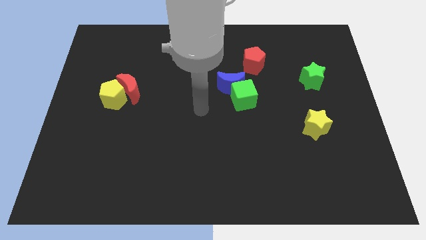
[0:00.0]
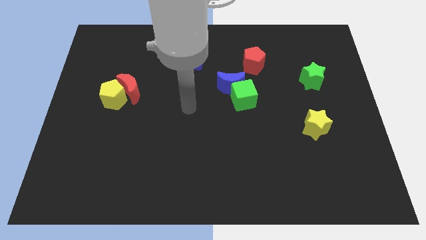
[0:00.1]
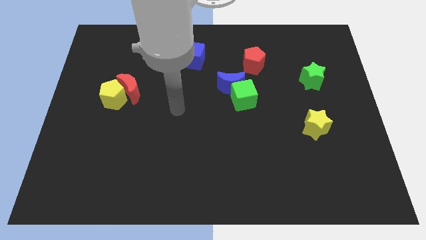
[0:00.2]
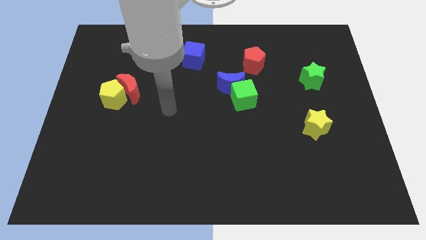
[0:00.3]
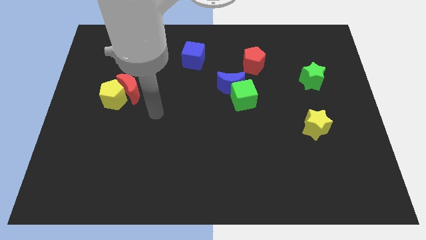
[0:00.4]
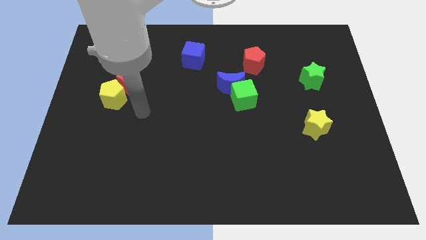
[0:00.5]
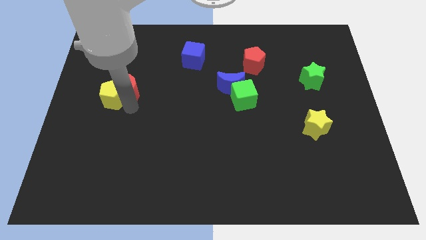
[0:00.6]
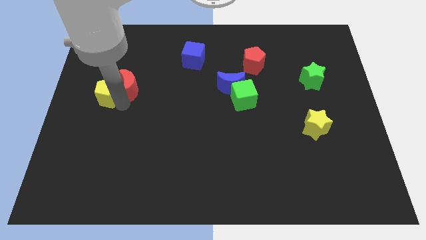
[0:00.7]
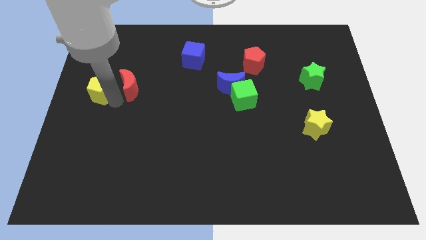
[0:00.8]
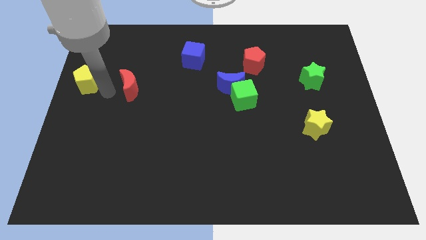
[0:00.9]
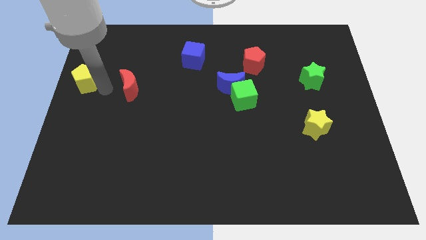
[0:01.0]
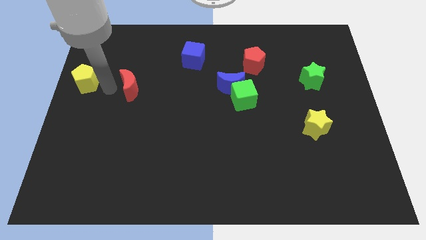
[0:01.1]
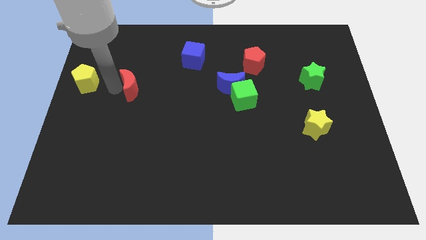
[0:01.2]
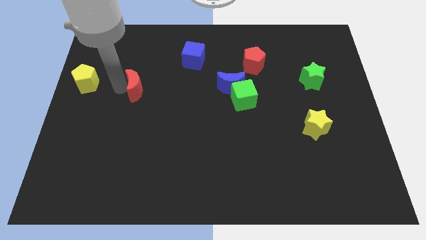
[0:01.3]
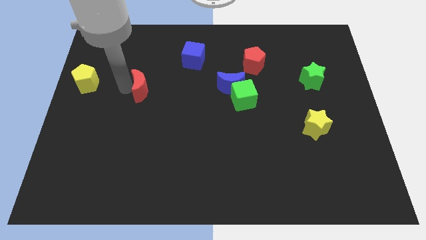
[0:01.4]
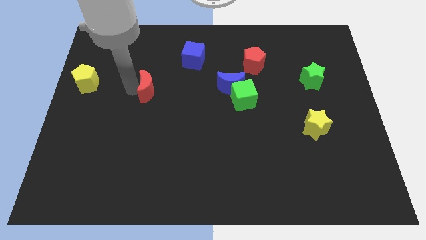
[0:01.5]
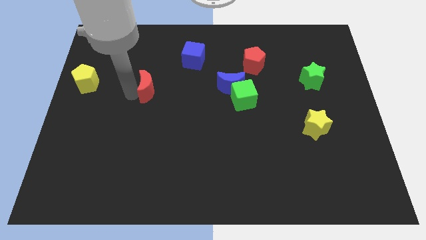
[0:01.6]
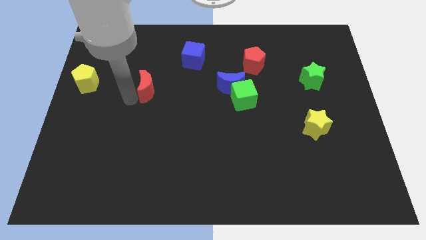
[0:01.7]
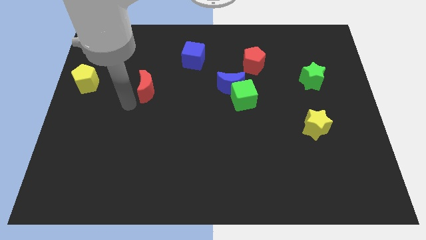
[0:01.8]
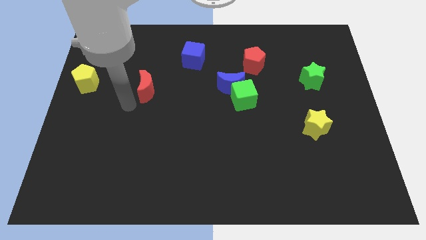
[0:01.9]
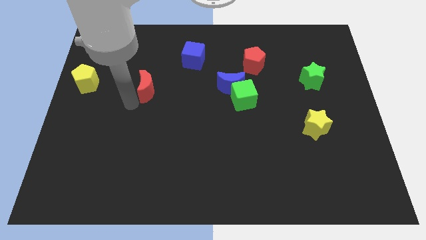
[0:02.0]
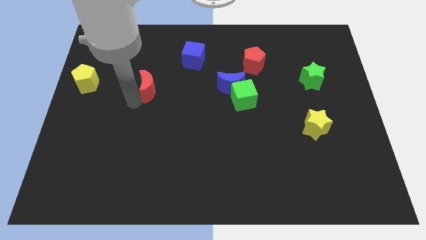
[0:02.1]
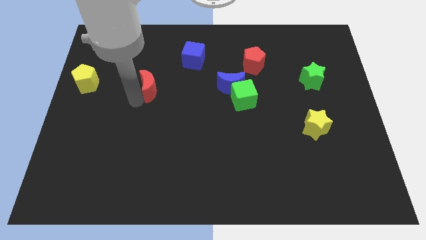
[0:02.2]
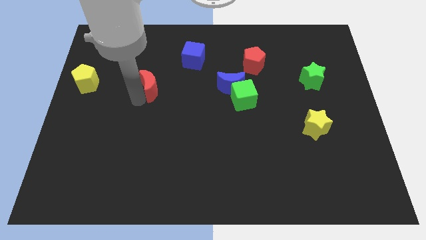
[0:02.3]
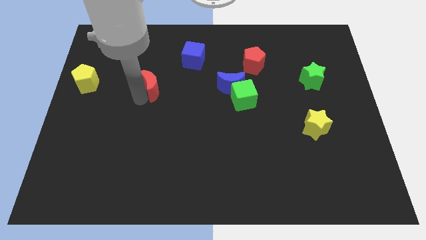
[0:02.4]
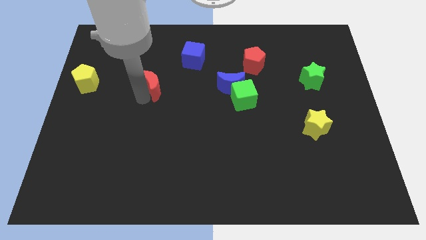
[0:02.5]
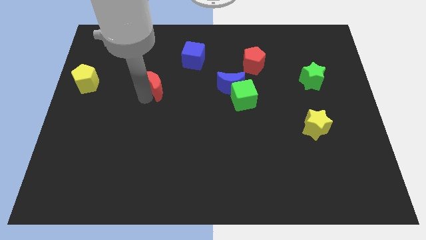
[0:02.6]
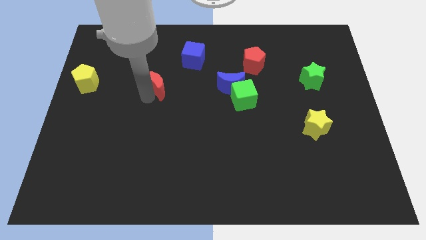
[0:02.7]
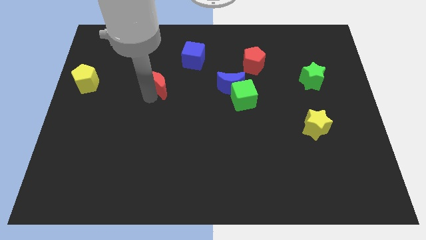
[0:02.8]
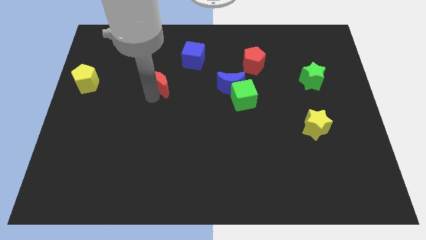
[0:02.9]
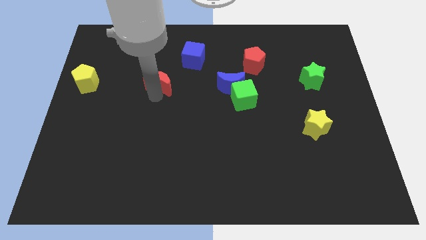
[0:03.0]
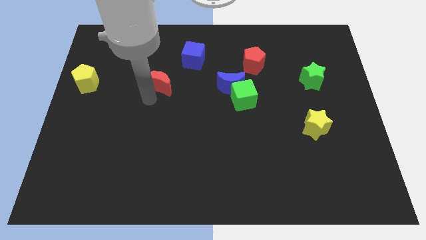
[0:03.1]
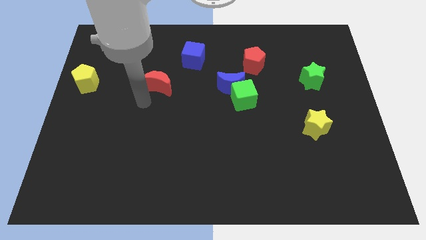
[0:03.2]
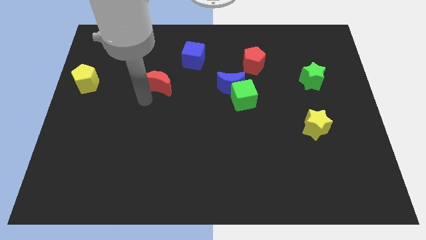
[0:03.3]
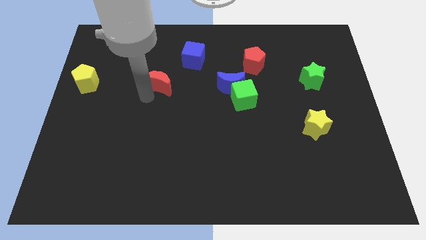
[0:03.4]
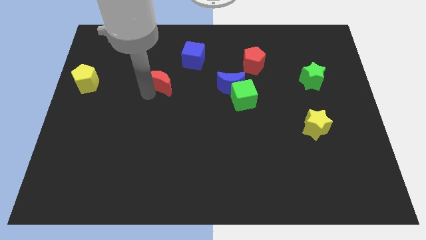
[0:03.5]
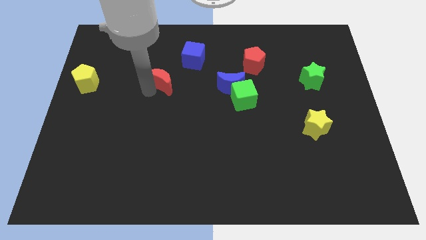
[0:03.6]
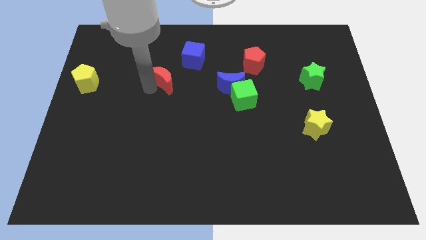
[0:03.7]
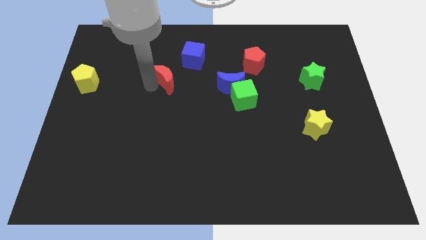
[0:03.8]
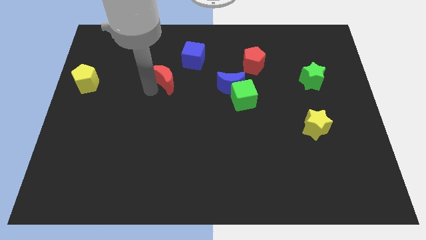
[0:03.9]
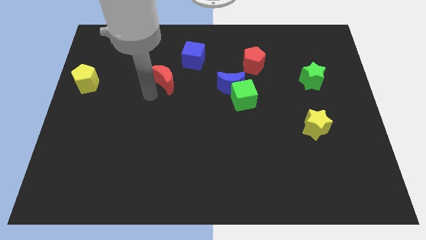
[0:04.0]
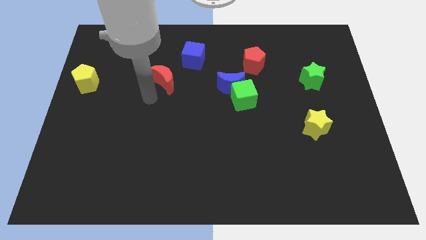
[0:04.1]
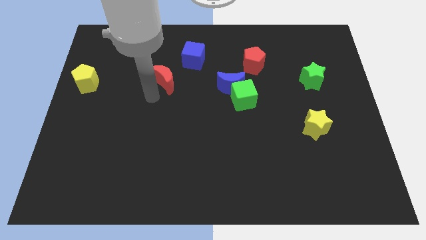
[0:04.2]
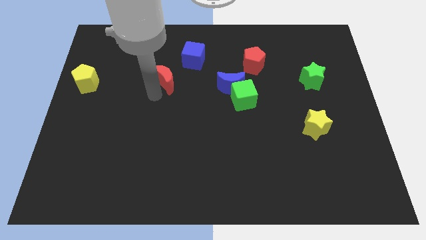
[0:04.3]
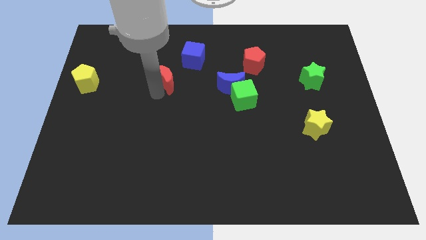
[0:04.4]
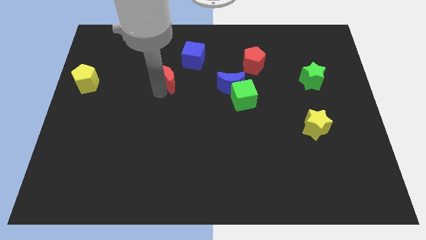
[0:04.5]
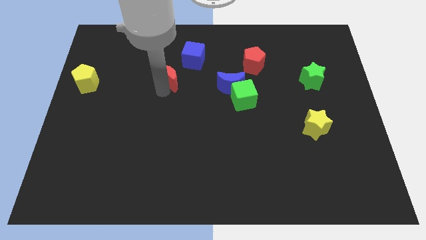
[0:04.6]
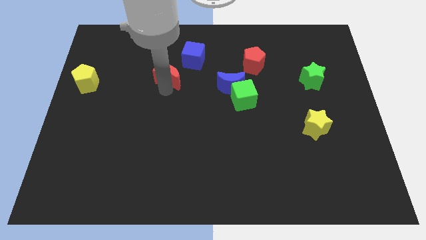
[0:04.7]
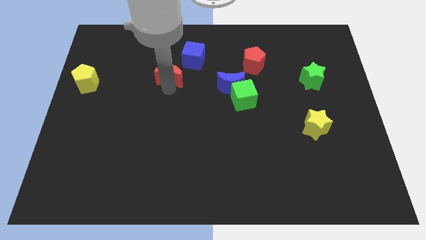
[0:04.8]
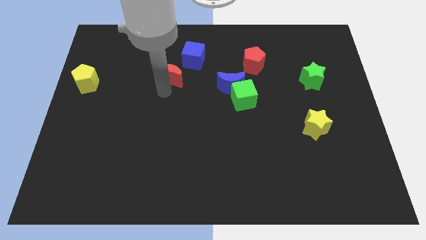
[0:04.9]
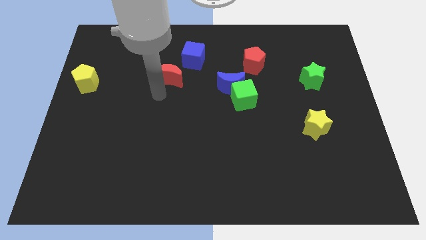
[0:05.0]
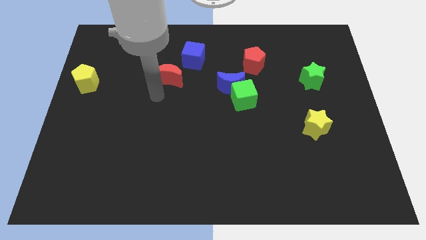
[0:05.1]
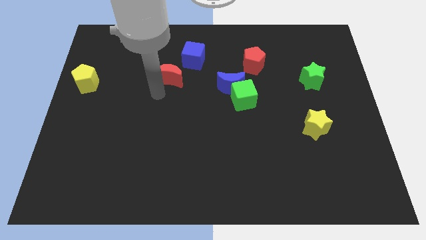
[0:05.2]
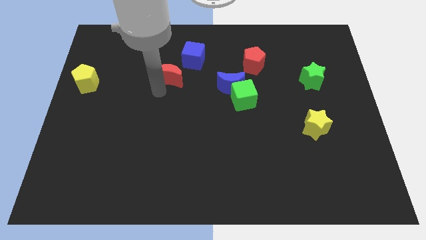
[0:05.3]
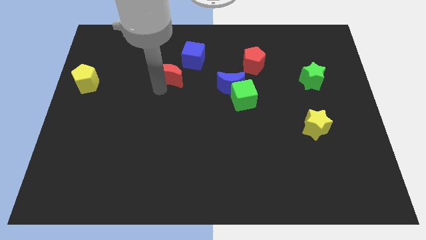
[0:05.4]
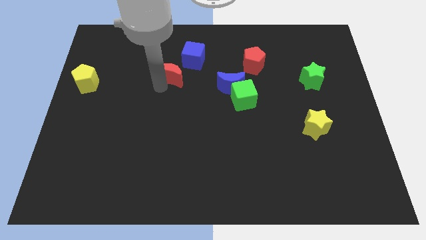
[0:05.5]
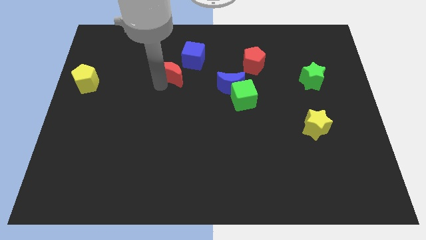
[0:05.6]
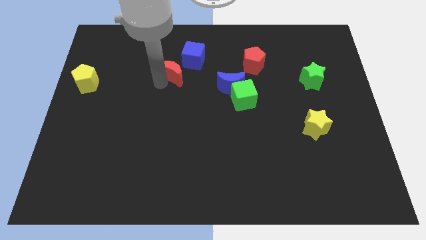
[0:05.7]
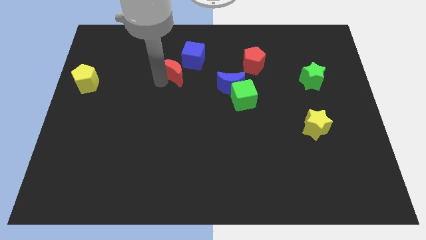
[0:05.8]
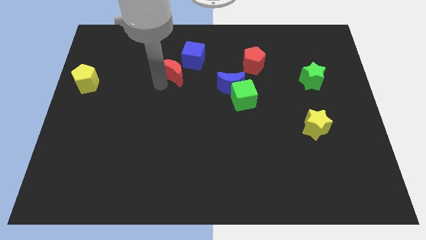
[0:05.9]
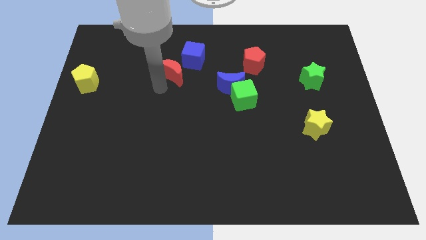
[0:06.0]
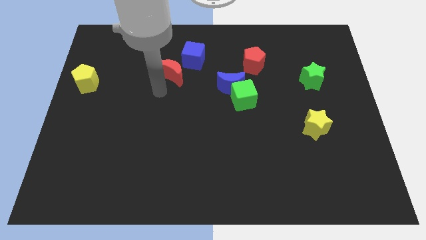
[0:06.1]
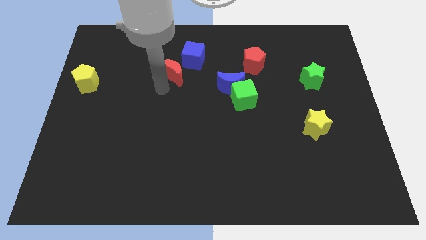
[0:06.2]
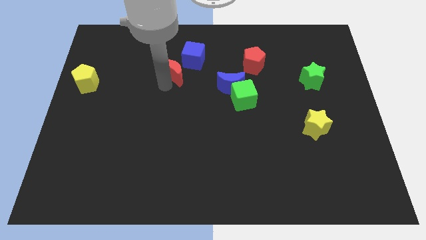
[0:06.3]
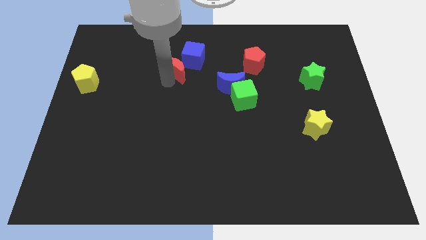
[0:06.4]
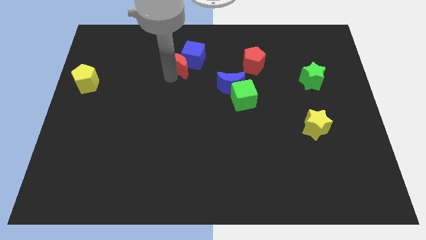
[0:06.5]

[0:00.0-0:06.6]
slide the red moon close to the blue cube

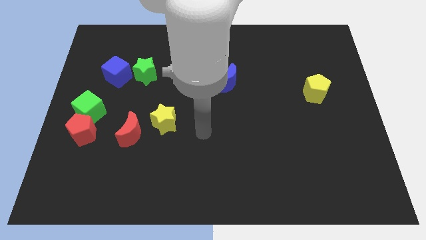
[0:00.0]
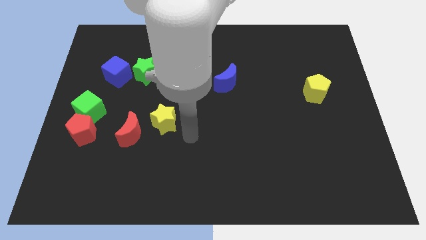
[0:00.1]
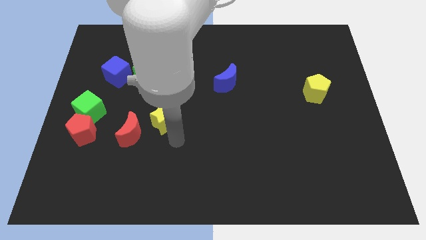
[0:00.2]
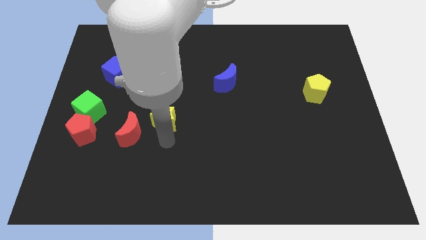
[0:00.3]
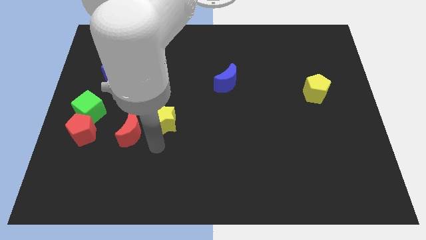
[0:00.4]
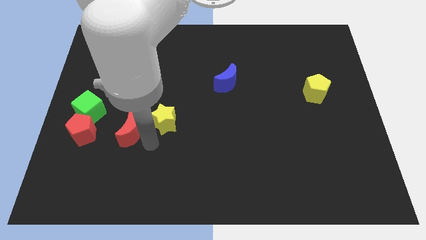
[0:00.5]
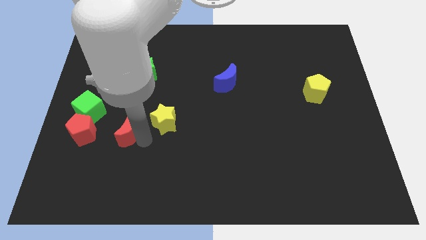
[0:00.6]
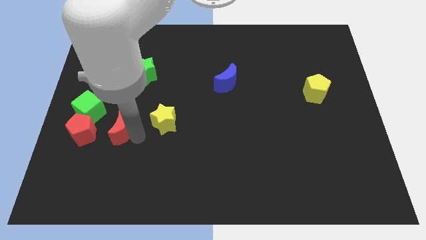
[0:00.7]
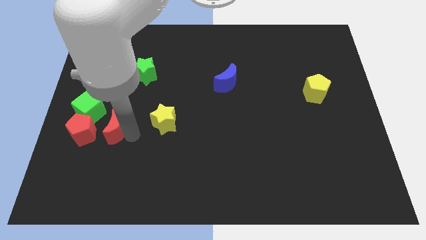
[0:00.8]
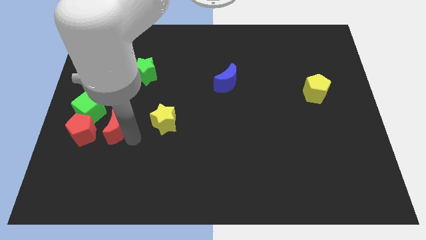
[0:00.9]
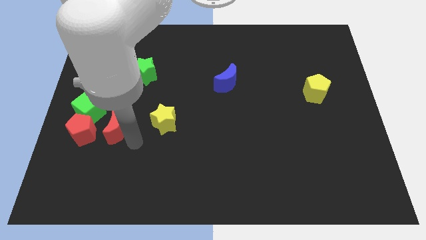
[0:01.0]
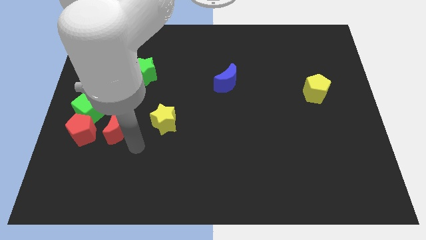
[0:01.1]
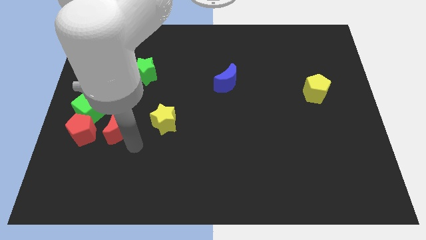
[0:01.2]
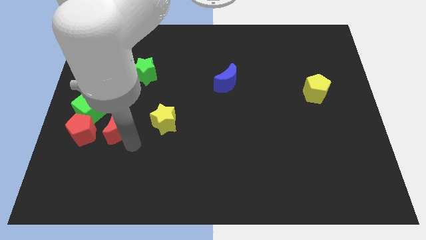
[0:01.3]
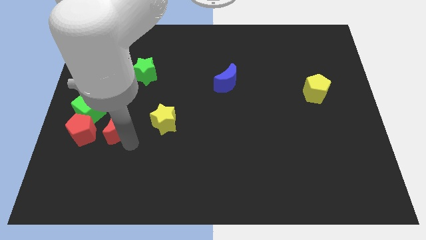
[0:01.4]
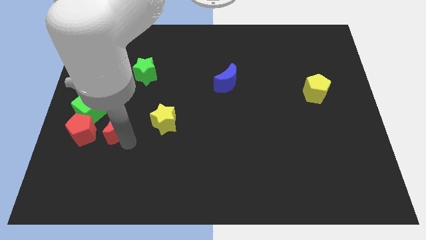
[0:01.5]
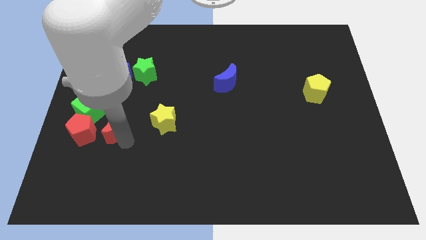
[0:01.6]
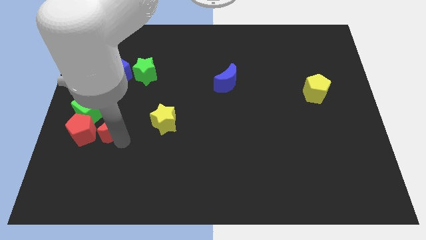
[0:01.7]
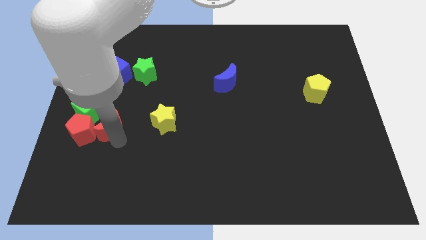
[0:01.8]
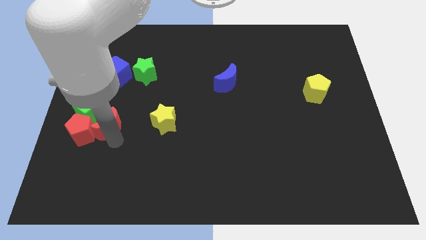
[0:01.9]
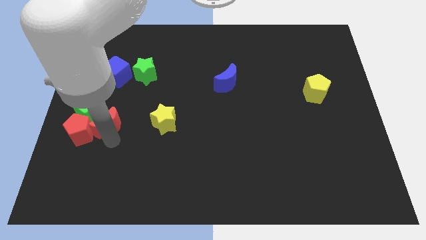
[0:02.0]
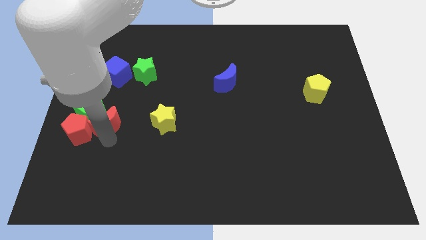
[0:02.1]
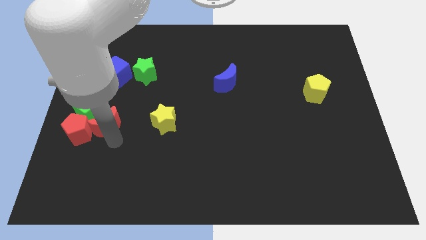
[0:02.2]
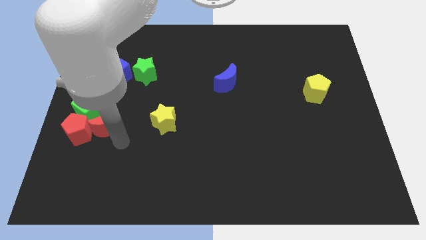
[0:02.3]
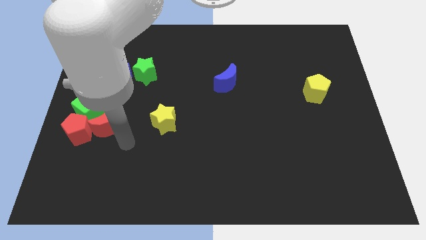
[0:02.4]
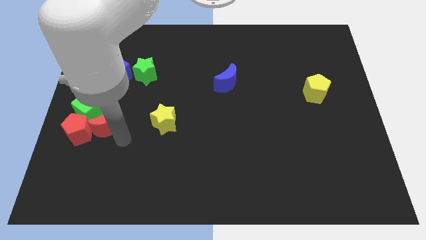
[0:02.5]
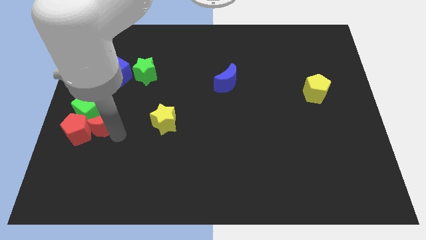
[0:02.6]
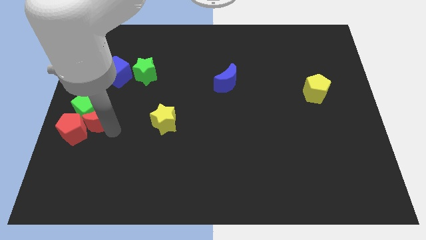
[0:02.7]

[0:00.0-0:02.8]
slide the red moon close to the green cube
